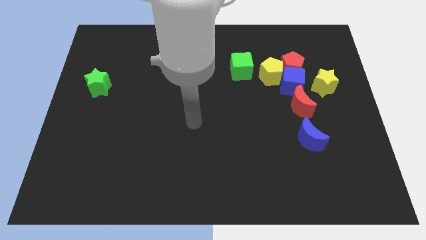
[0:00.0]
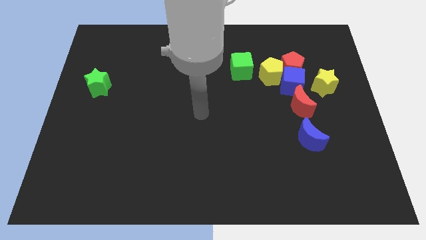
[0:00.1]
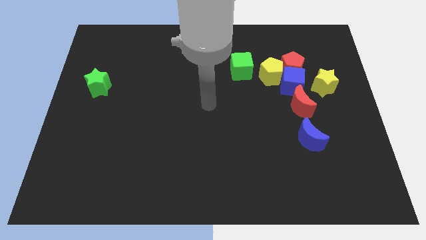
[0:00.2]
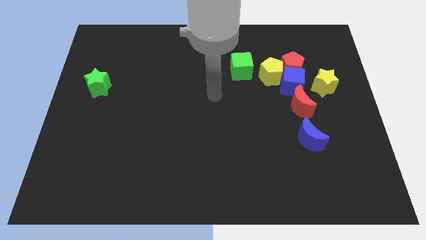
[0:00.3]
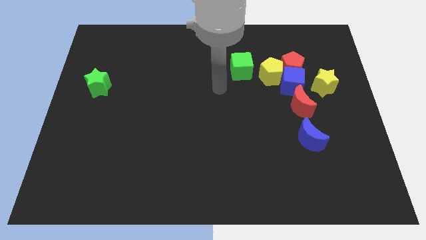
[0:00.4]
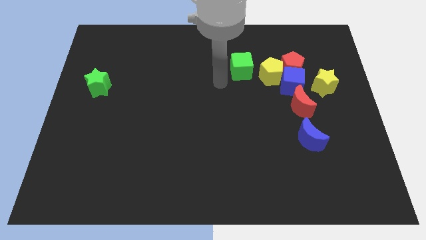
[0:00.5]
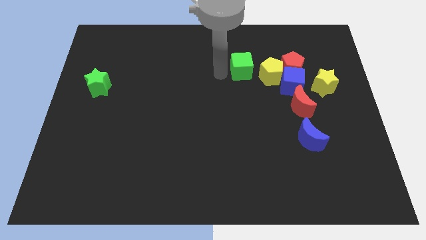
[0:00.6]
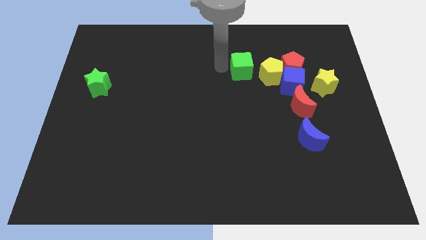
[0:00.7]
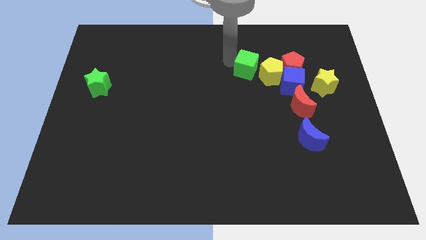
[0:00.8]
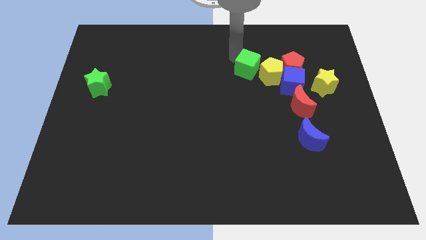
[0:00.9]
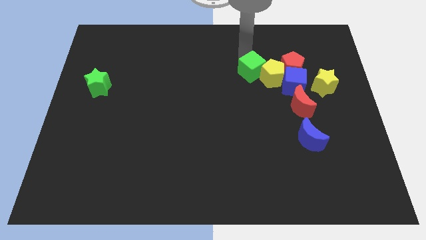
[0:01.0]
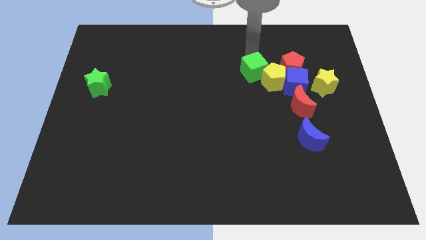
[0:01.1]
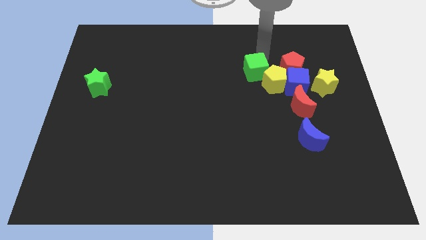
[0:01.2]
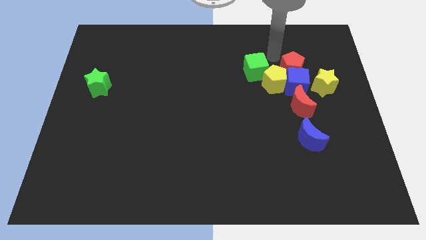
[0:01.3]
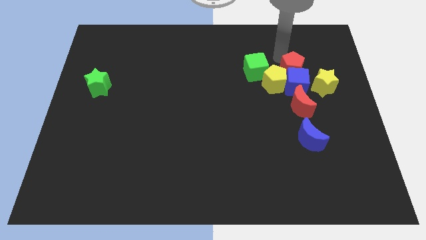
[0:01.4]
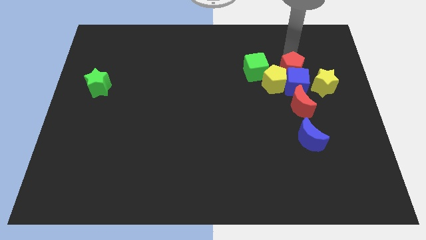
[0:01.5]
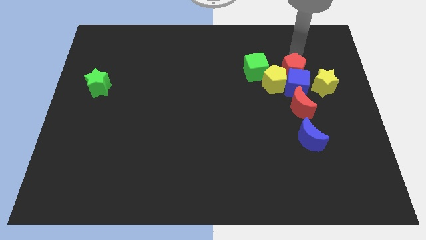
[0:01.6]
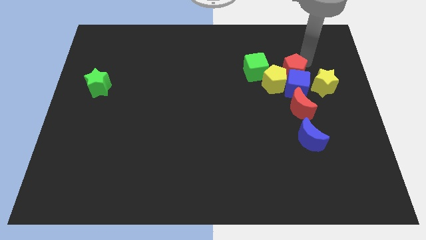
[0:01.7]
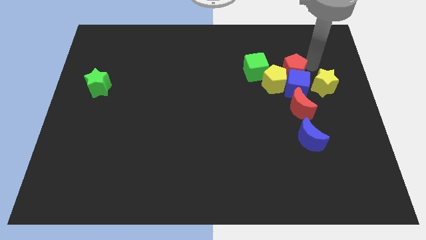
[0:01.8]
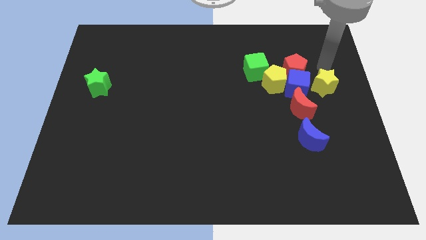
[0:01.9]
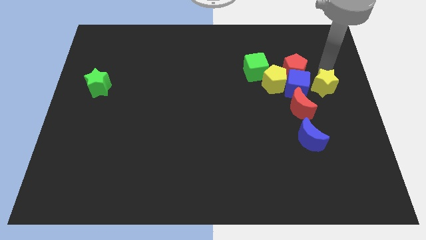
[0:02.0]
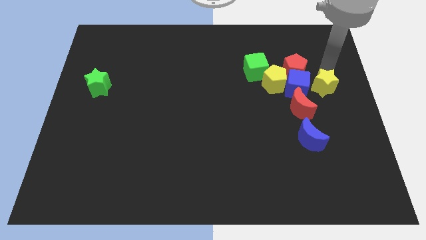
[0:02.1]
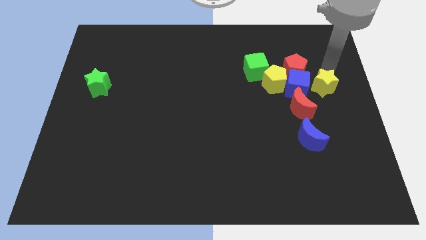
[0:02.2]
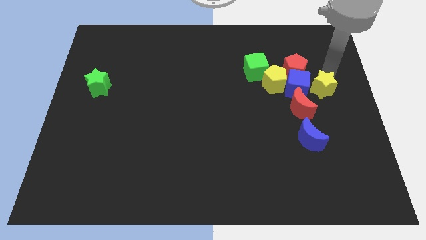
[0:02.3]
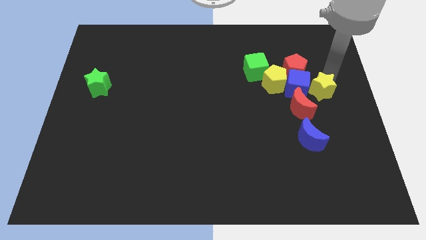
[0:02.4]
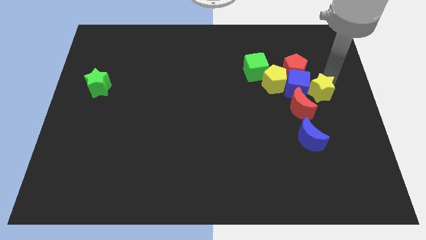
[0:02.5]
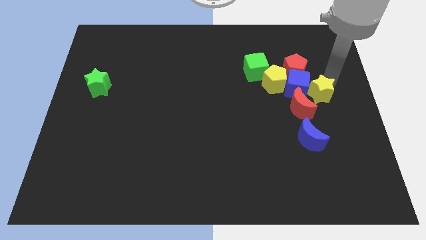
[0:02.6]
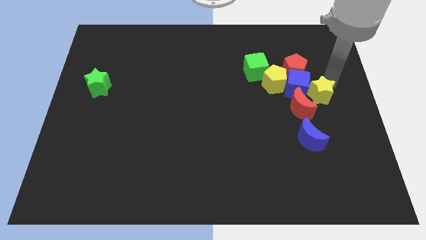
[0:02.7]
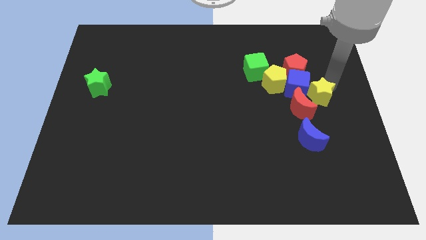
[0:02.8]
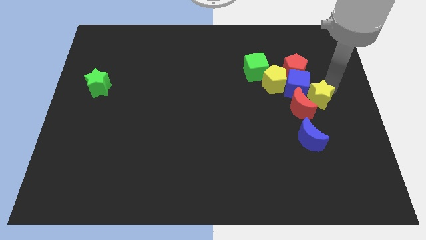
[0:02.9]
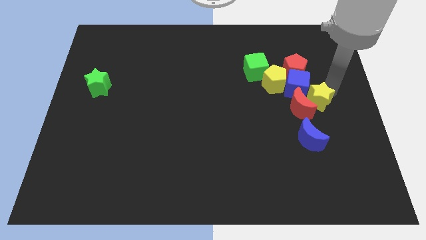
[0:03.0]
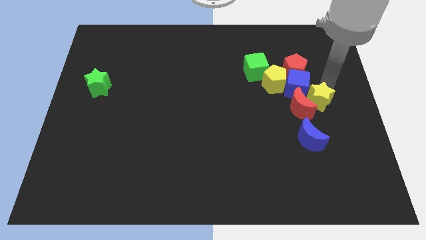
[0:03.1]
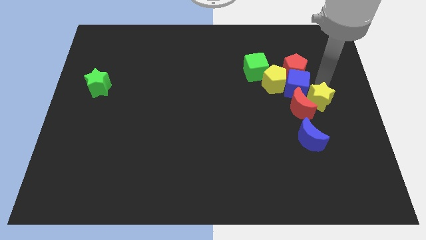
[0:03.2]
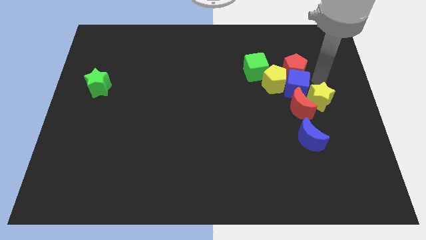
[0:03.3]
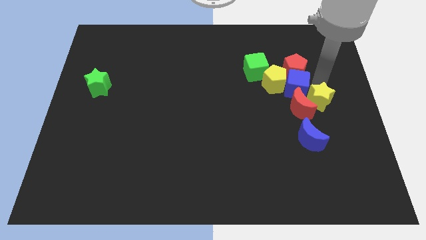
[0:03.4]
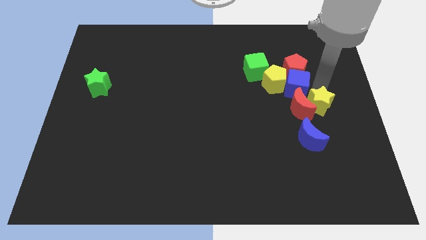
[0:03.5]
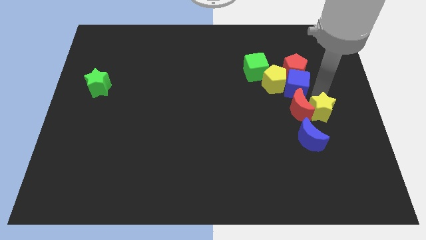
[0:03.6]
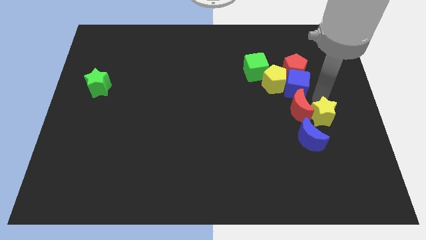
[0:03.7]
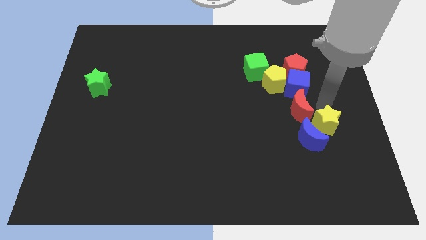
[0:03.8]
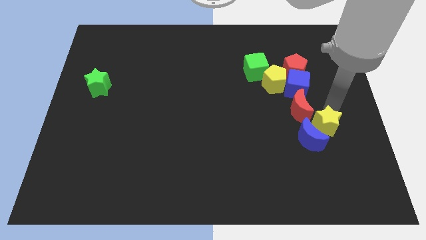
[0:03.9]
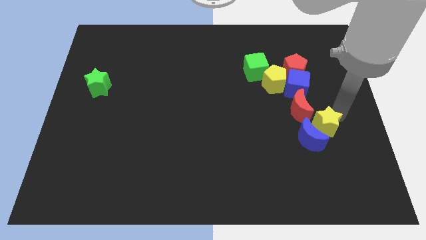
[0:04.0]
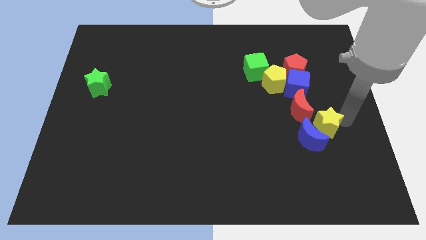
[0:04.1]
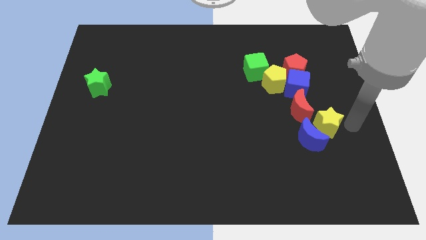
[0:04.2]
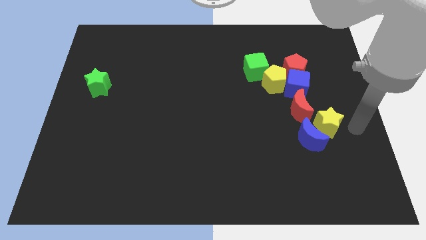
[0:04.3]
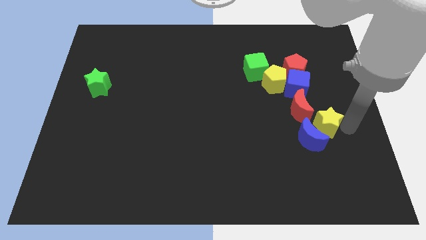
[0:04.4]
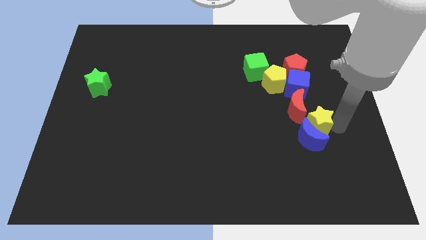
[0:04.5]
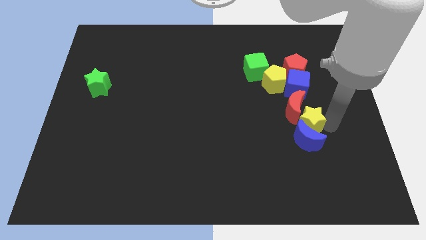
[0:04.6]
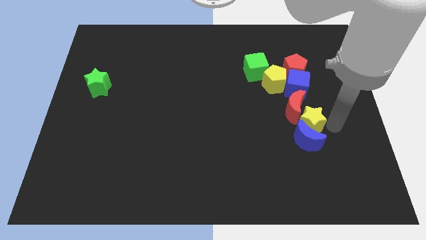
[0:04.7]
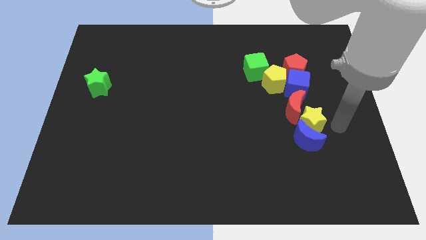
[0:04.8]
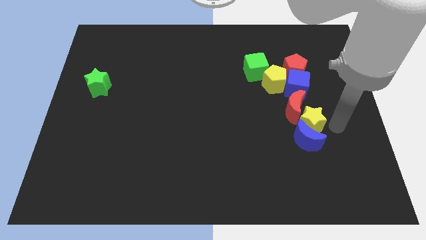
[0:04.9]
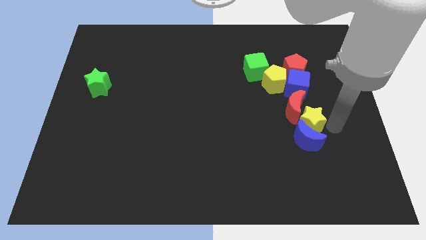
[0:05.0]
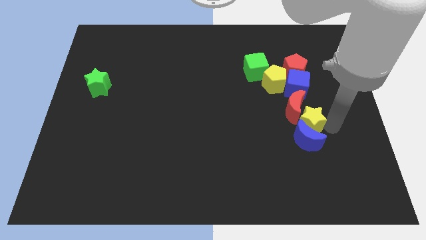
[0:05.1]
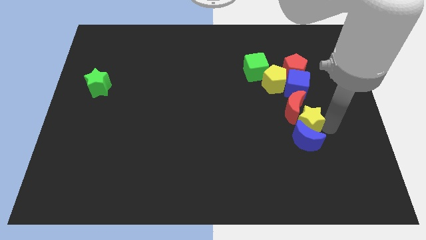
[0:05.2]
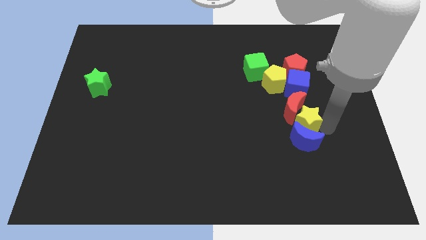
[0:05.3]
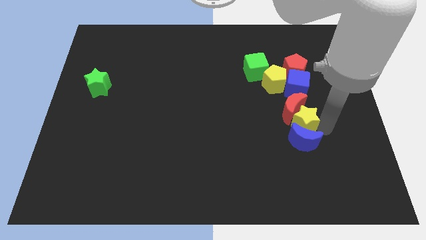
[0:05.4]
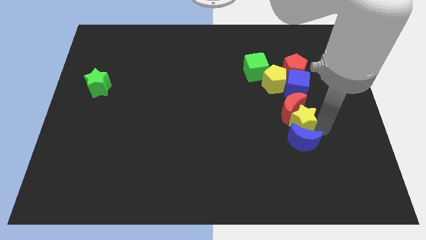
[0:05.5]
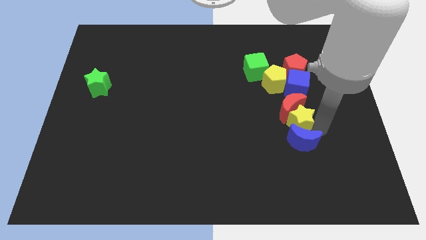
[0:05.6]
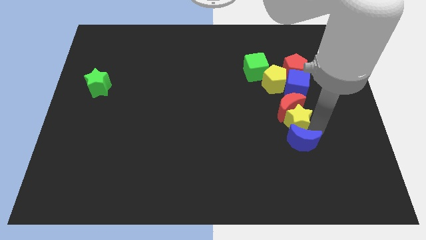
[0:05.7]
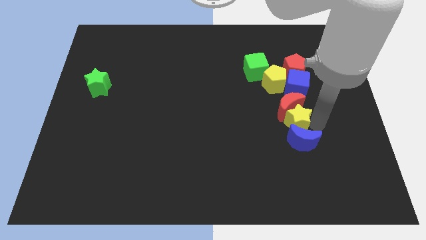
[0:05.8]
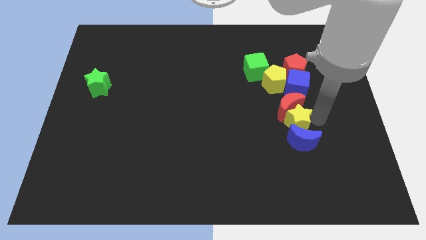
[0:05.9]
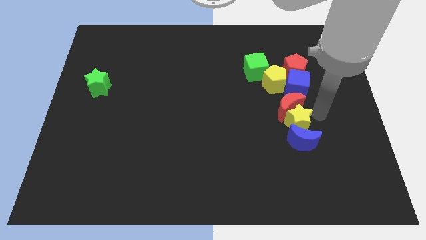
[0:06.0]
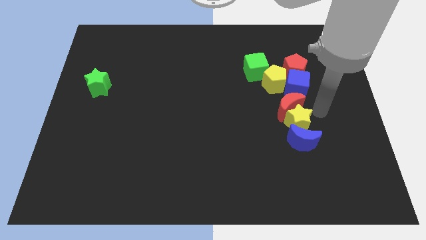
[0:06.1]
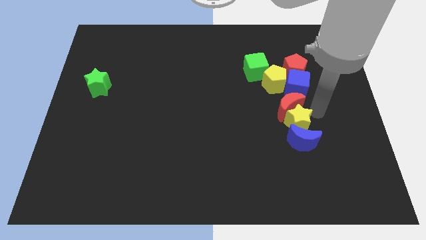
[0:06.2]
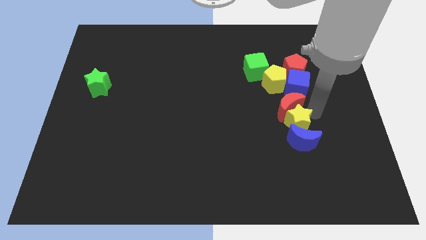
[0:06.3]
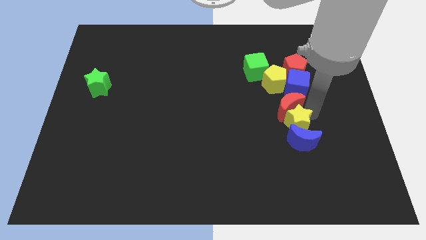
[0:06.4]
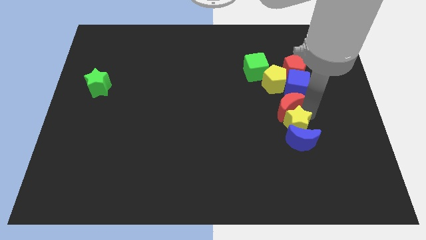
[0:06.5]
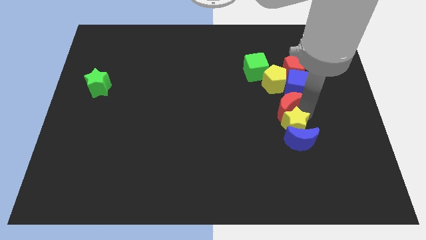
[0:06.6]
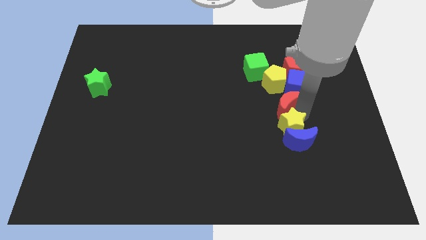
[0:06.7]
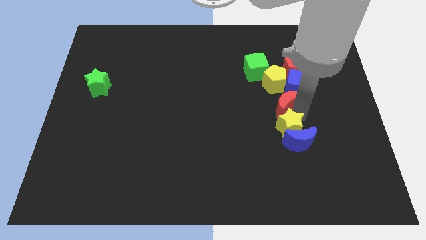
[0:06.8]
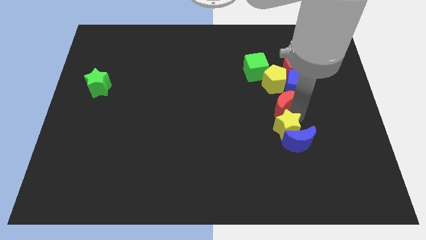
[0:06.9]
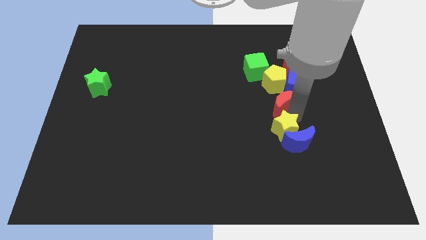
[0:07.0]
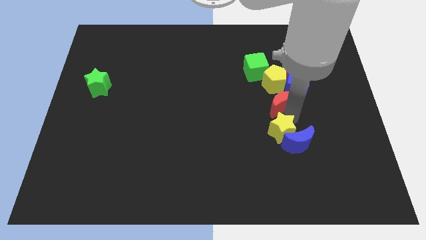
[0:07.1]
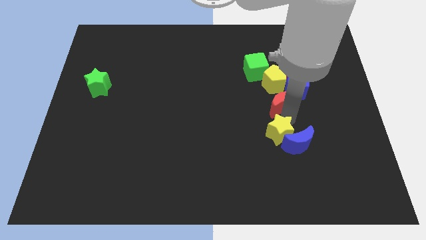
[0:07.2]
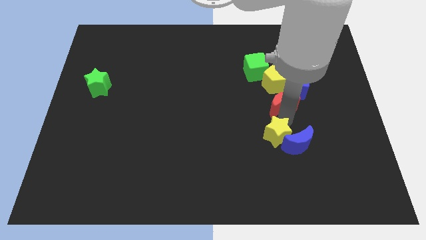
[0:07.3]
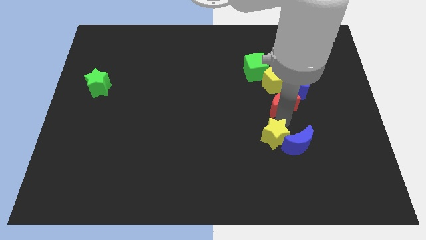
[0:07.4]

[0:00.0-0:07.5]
slide the yellow star down and left diagonally

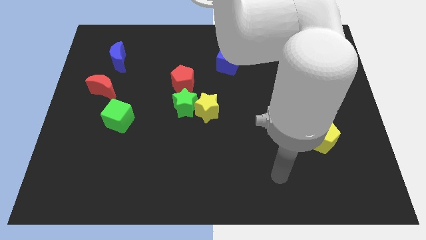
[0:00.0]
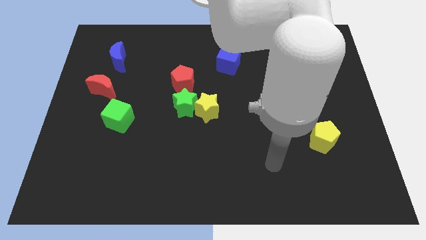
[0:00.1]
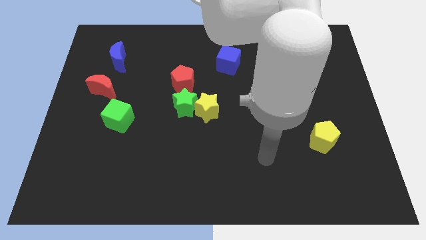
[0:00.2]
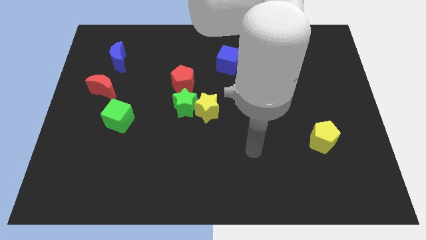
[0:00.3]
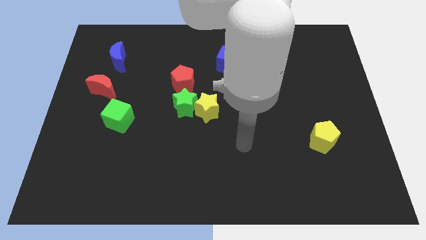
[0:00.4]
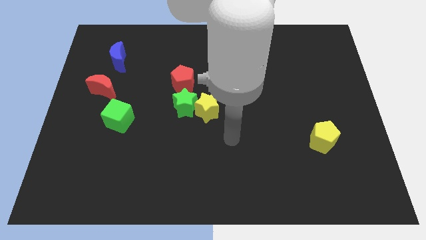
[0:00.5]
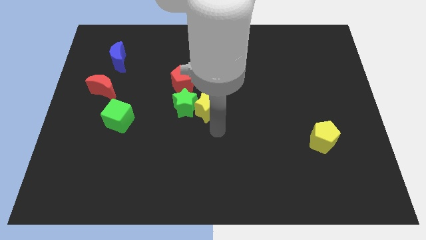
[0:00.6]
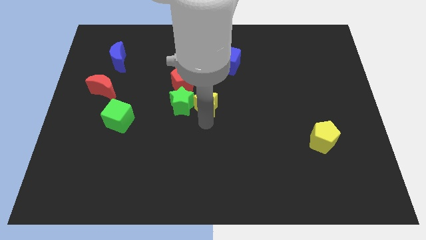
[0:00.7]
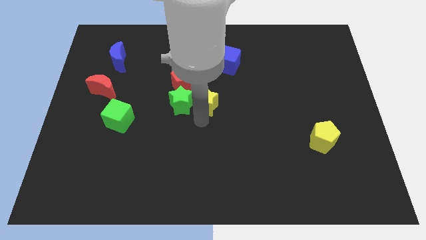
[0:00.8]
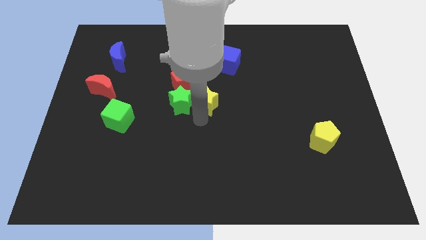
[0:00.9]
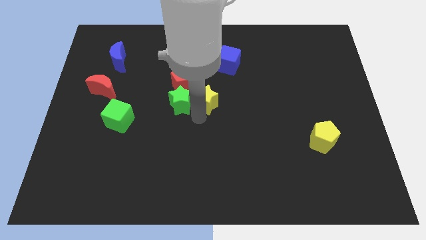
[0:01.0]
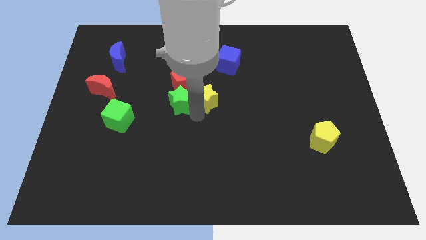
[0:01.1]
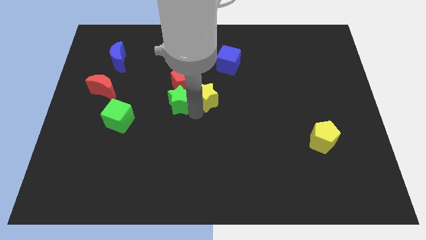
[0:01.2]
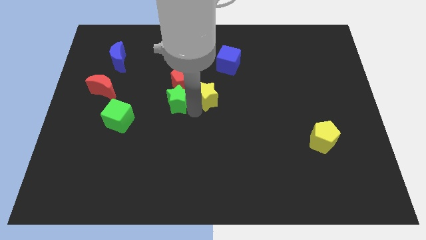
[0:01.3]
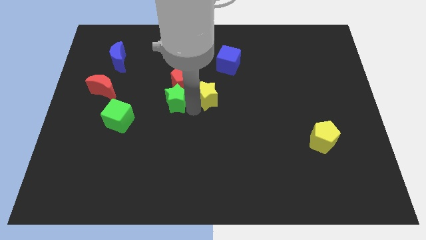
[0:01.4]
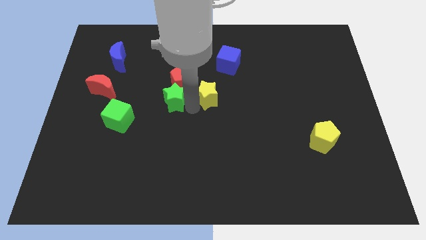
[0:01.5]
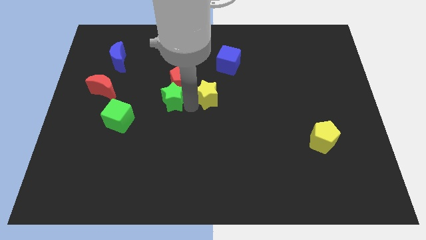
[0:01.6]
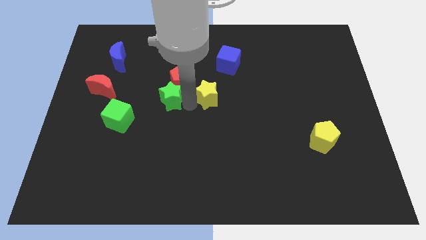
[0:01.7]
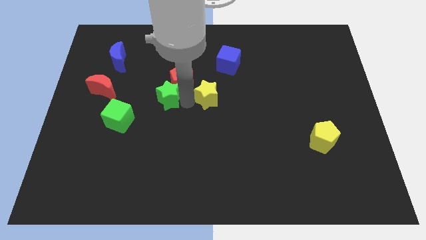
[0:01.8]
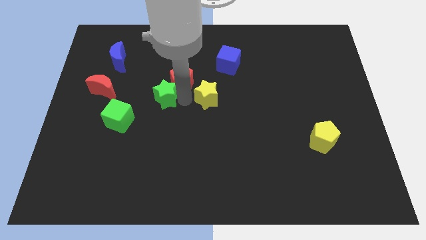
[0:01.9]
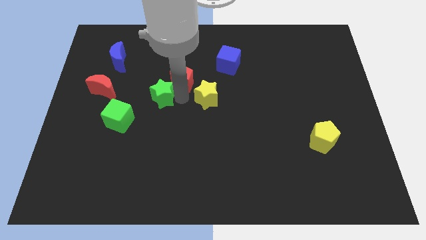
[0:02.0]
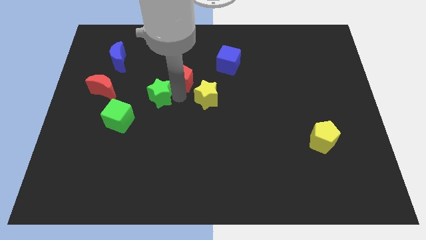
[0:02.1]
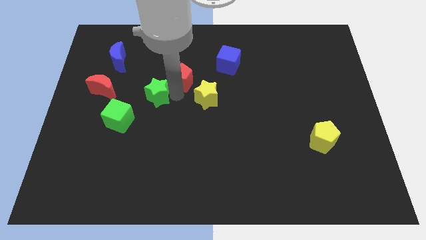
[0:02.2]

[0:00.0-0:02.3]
slide the green star somewhat diagonally upwards and to the left
